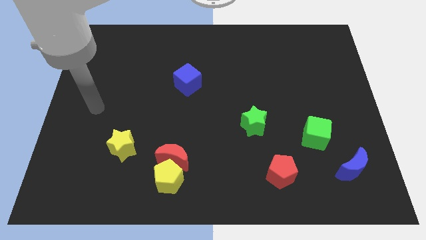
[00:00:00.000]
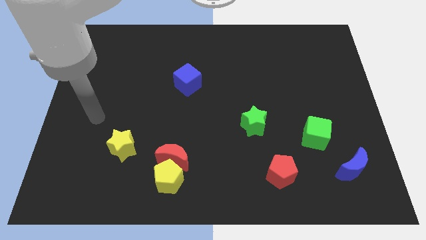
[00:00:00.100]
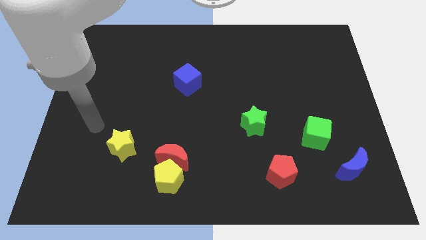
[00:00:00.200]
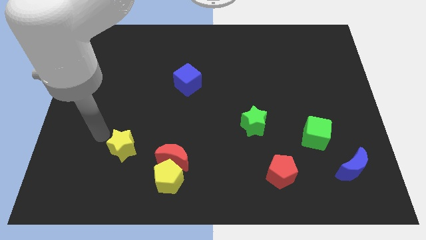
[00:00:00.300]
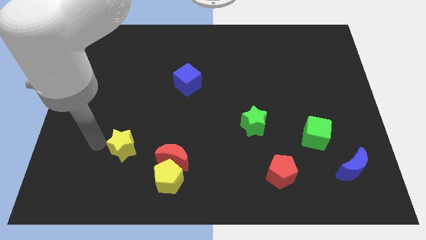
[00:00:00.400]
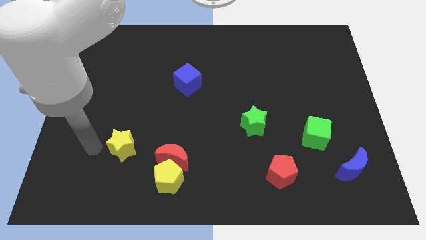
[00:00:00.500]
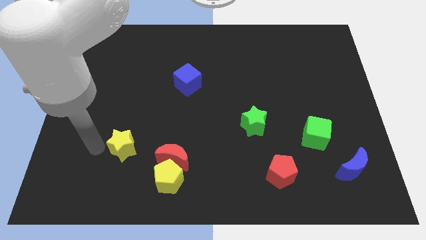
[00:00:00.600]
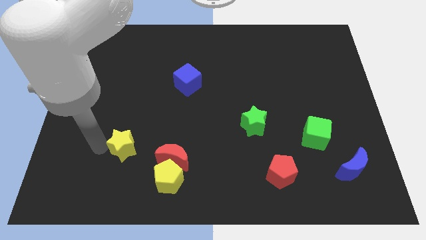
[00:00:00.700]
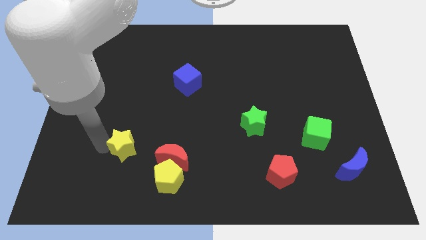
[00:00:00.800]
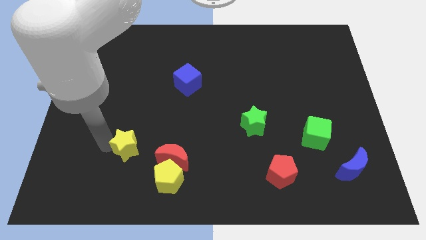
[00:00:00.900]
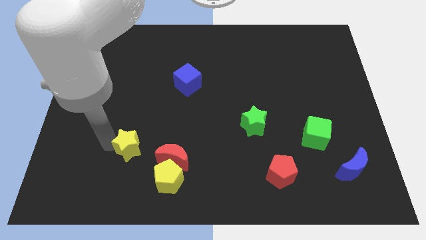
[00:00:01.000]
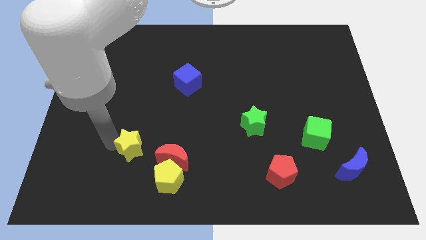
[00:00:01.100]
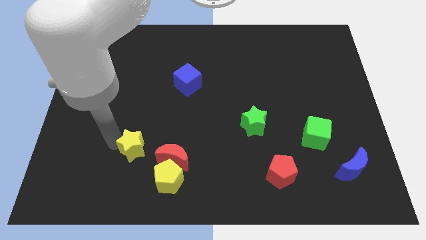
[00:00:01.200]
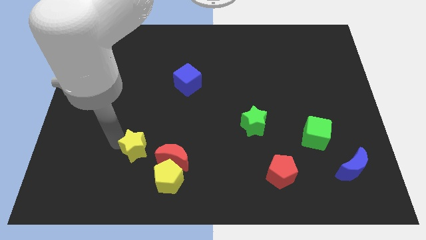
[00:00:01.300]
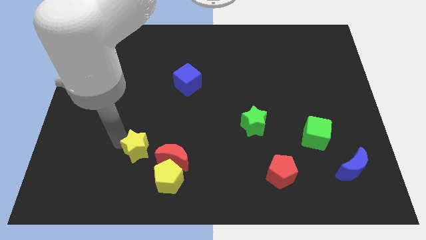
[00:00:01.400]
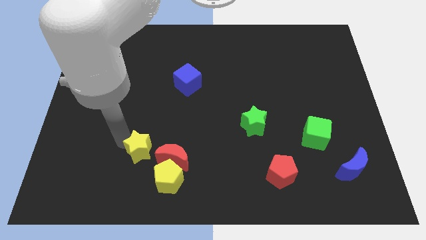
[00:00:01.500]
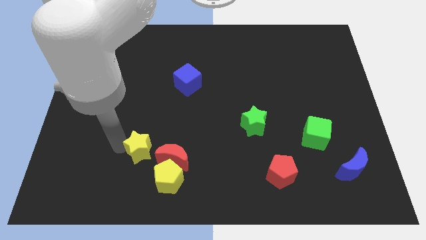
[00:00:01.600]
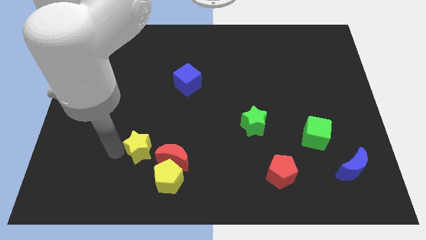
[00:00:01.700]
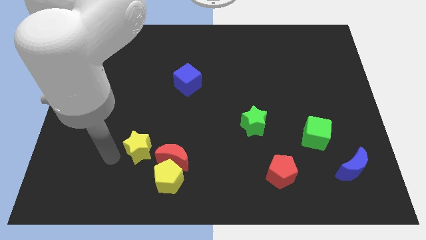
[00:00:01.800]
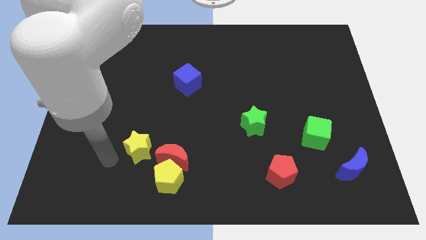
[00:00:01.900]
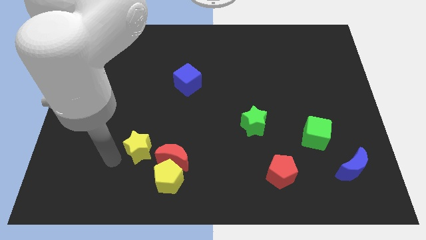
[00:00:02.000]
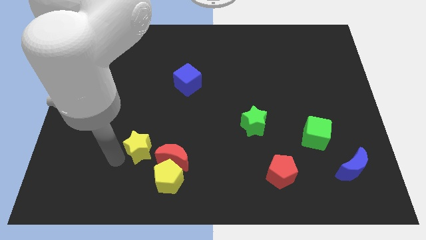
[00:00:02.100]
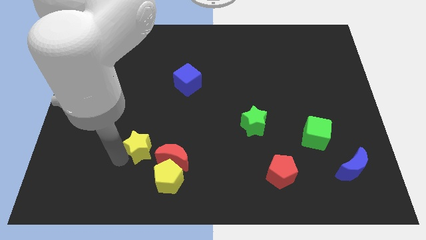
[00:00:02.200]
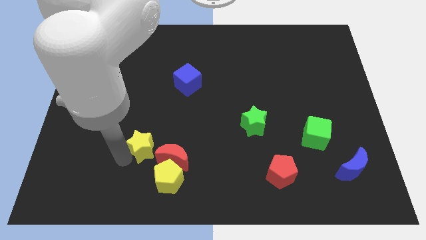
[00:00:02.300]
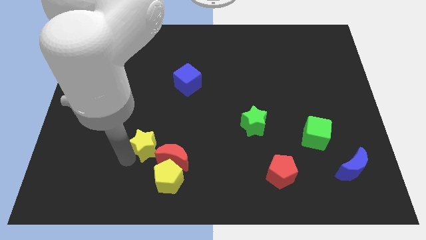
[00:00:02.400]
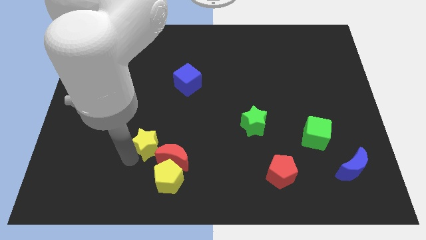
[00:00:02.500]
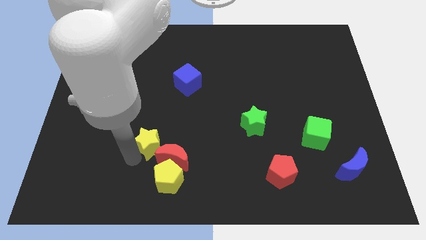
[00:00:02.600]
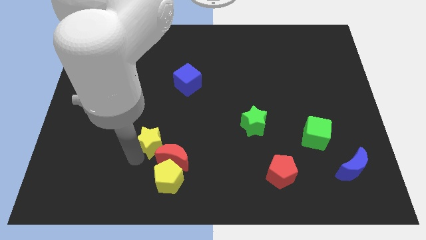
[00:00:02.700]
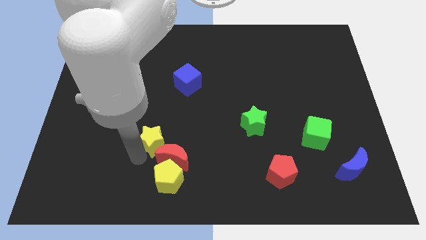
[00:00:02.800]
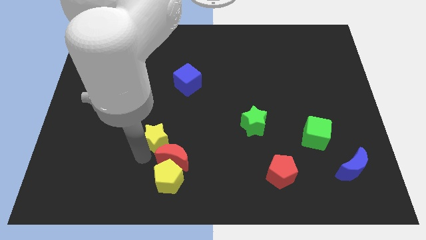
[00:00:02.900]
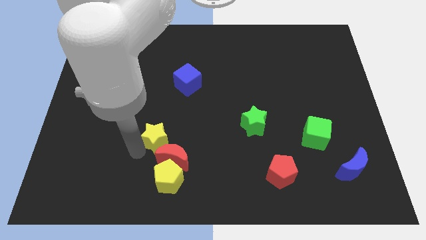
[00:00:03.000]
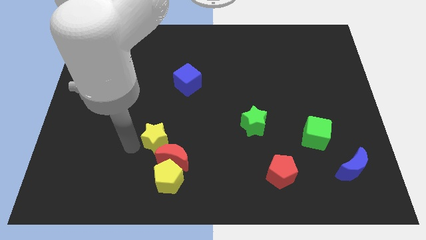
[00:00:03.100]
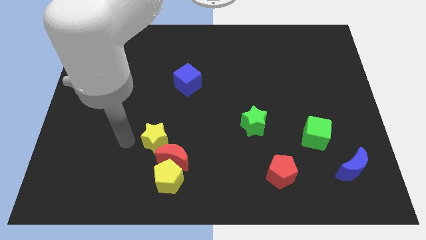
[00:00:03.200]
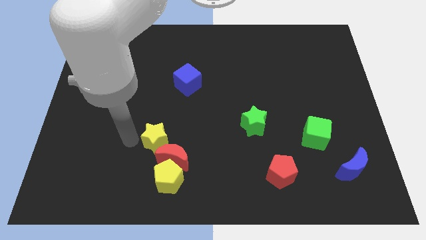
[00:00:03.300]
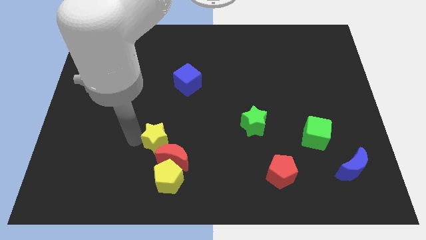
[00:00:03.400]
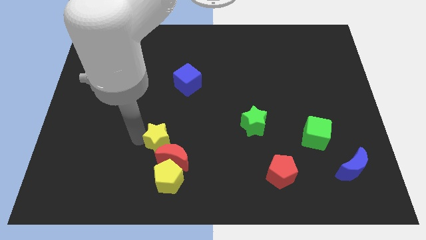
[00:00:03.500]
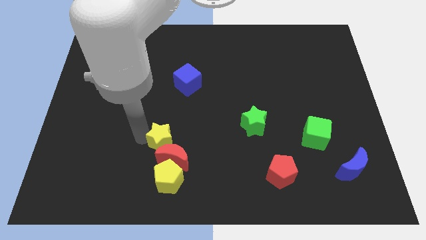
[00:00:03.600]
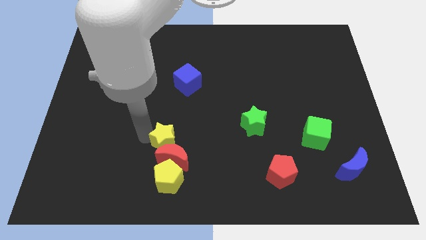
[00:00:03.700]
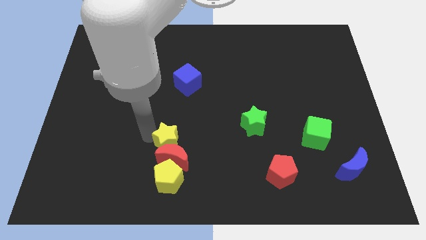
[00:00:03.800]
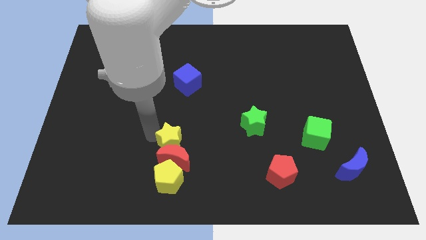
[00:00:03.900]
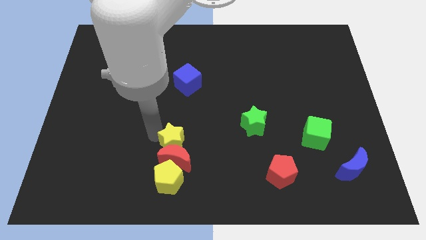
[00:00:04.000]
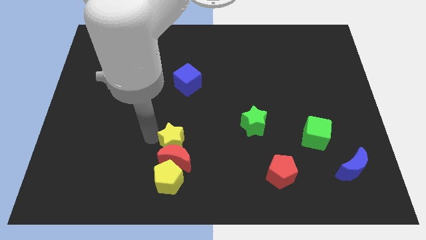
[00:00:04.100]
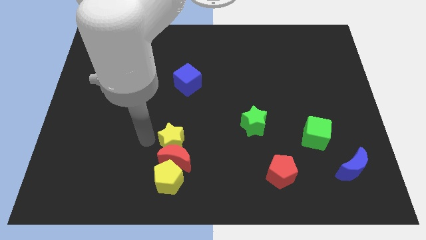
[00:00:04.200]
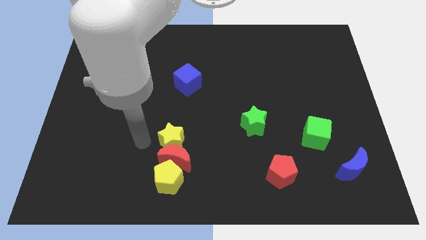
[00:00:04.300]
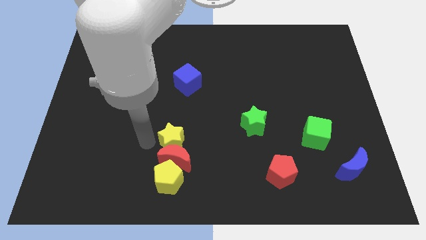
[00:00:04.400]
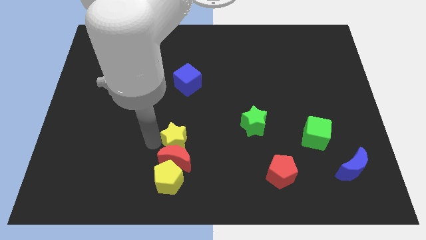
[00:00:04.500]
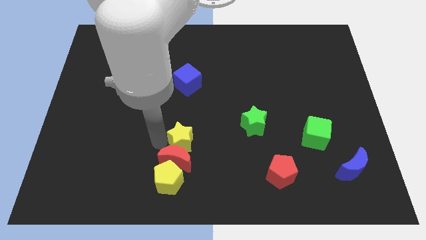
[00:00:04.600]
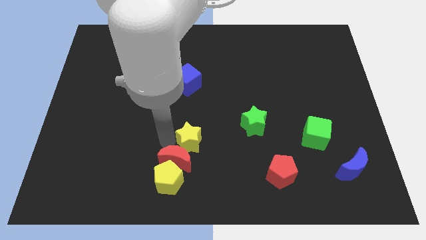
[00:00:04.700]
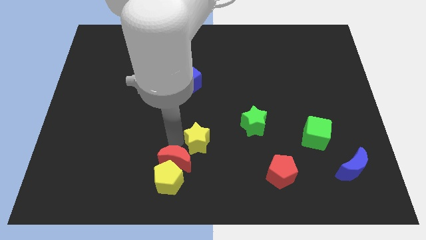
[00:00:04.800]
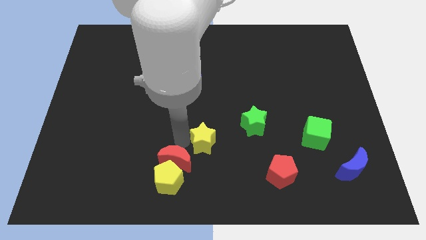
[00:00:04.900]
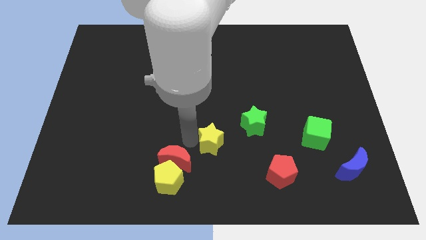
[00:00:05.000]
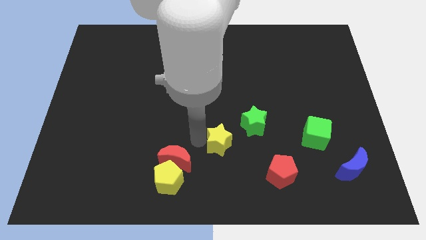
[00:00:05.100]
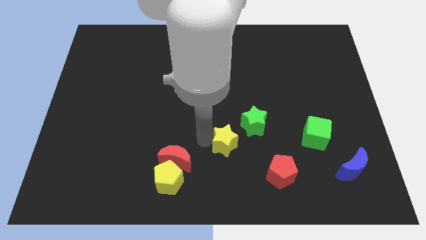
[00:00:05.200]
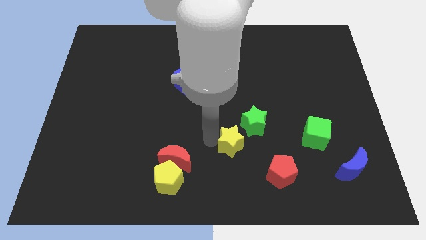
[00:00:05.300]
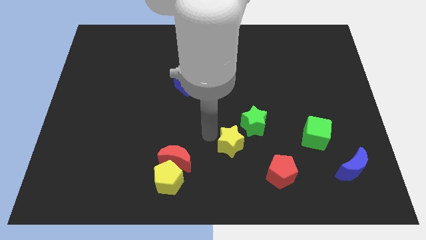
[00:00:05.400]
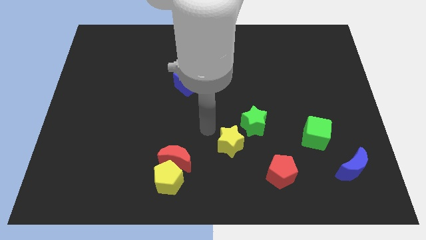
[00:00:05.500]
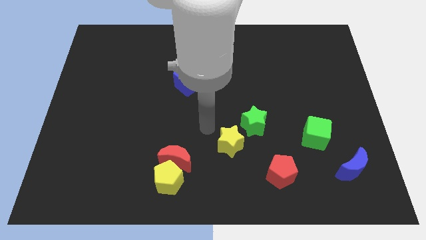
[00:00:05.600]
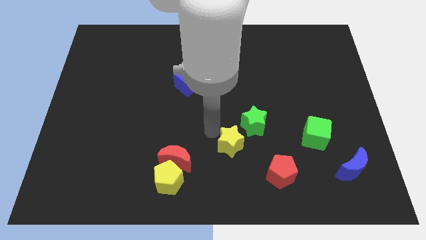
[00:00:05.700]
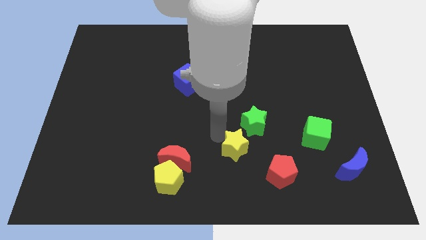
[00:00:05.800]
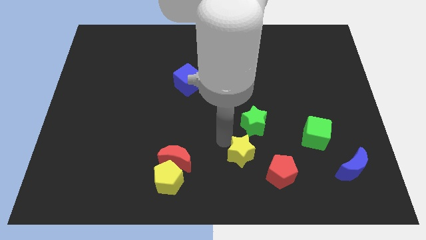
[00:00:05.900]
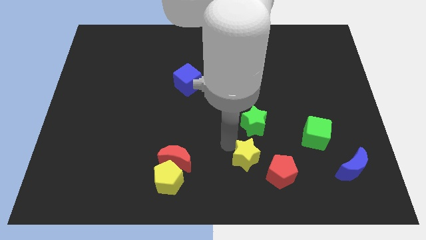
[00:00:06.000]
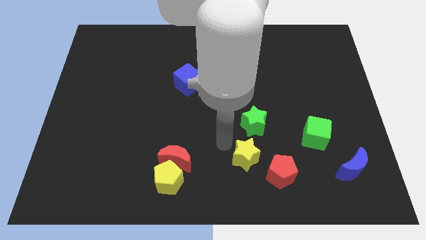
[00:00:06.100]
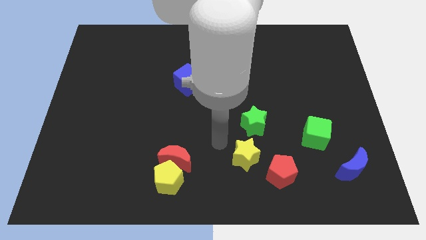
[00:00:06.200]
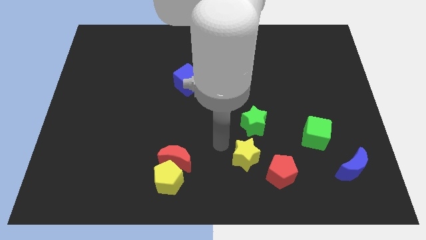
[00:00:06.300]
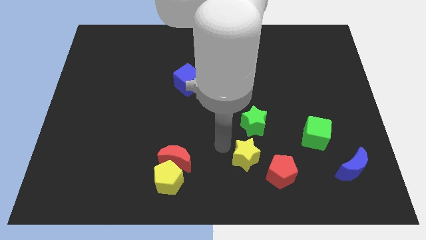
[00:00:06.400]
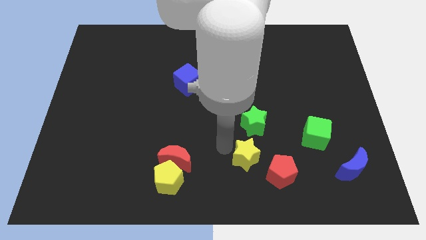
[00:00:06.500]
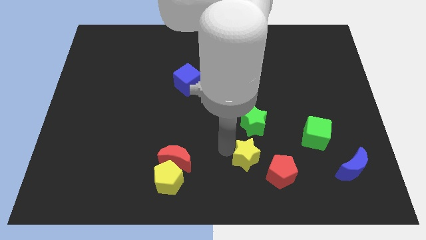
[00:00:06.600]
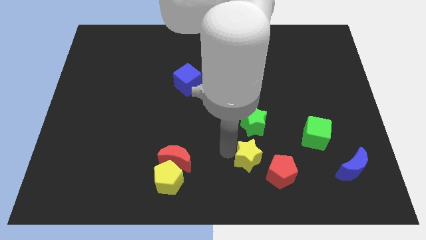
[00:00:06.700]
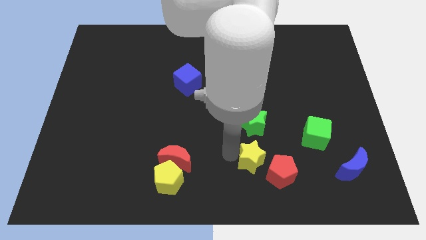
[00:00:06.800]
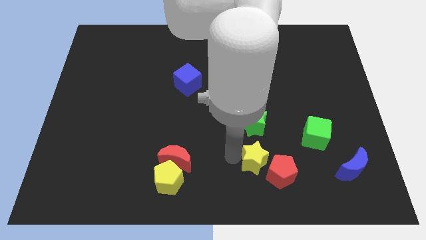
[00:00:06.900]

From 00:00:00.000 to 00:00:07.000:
push the yellow star close to the red pentagon

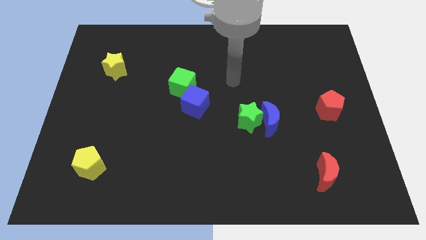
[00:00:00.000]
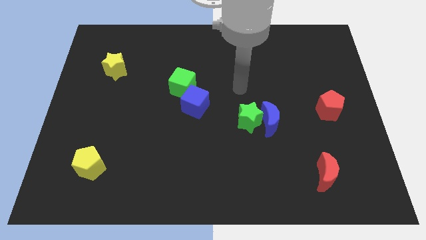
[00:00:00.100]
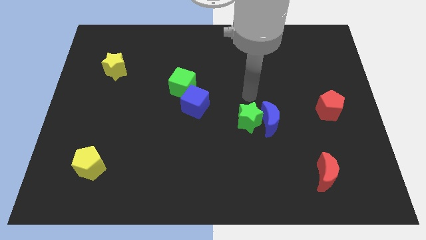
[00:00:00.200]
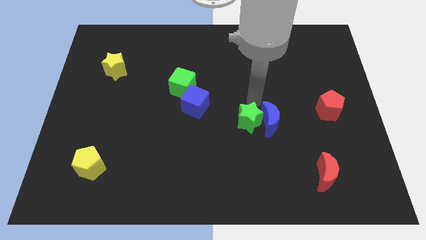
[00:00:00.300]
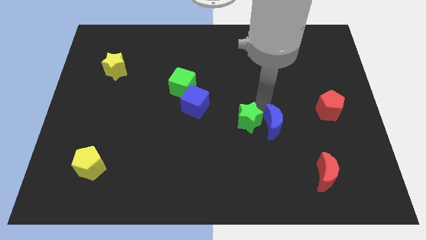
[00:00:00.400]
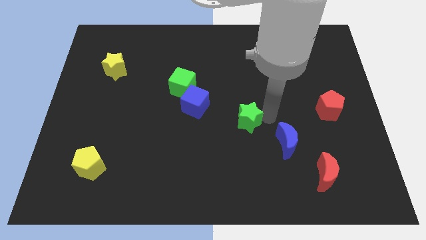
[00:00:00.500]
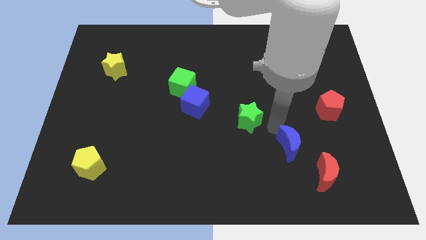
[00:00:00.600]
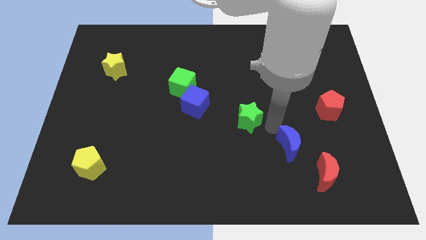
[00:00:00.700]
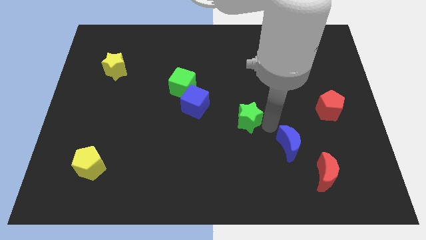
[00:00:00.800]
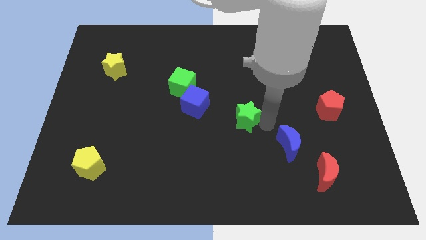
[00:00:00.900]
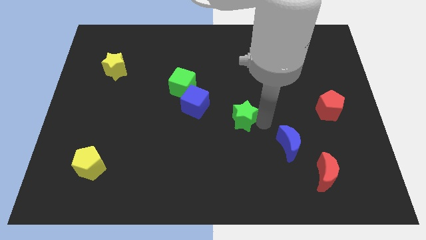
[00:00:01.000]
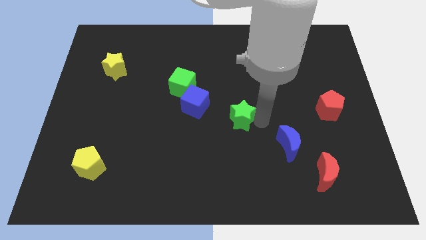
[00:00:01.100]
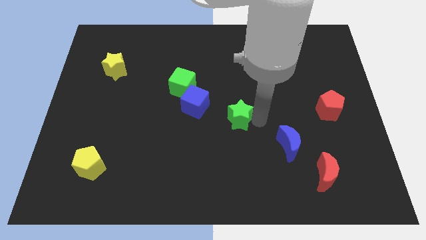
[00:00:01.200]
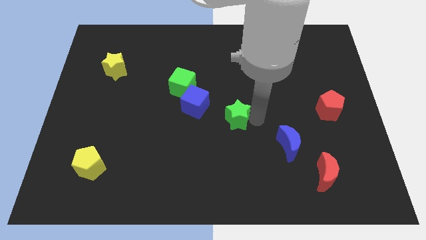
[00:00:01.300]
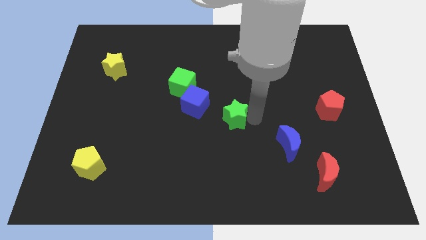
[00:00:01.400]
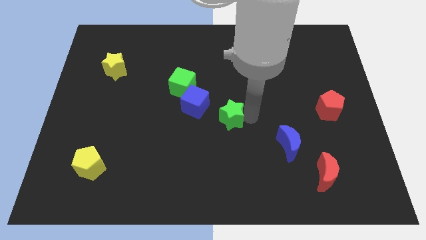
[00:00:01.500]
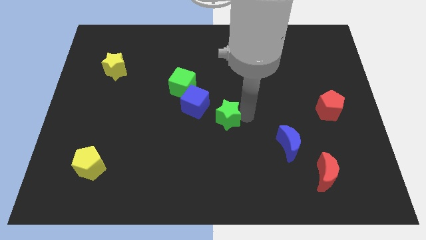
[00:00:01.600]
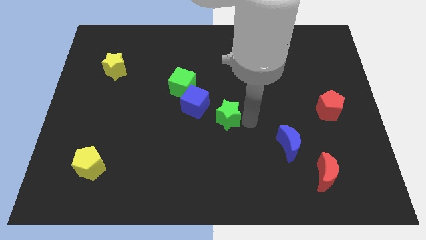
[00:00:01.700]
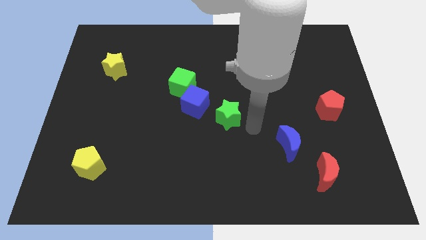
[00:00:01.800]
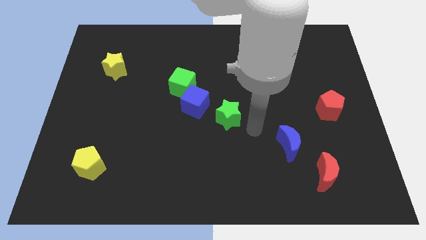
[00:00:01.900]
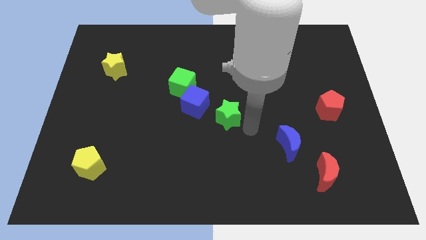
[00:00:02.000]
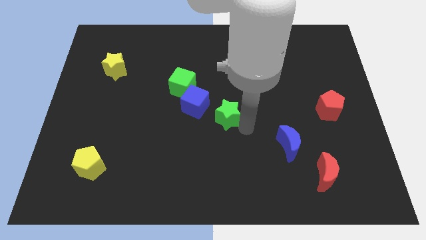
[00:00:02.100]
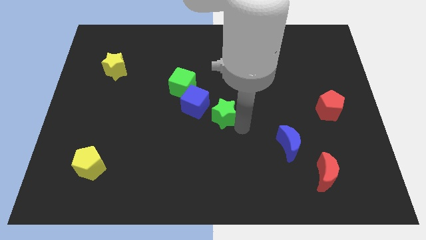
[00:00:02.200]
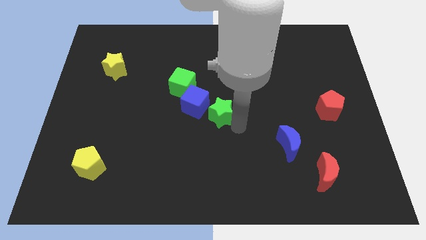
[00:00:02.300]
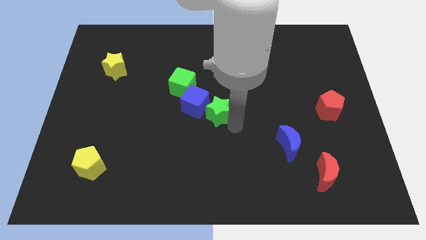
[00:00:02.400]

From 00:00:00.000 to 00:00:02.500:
slide the green star close to the blue cube
